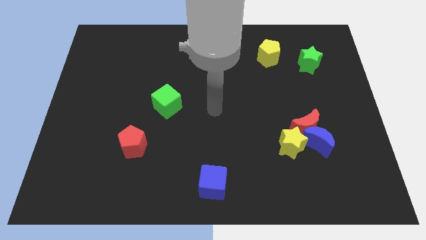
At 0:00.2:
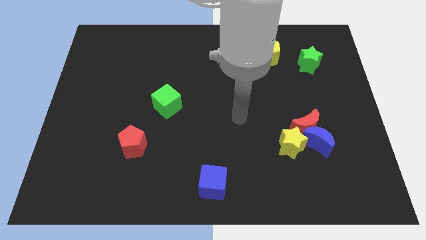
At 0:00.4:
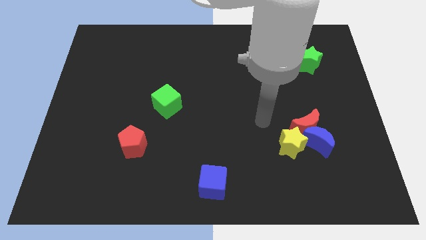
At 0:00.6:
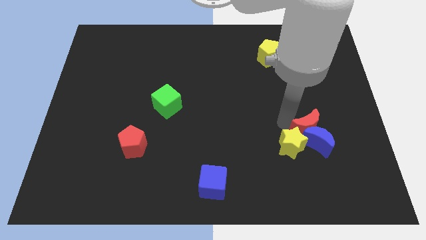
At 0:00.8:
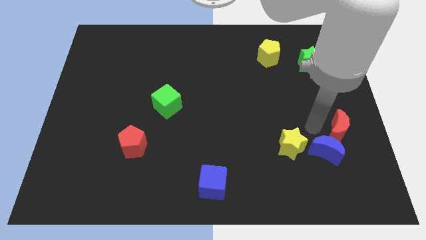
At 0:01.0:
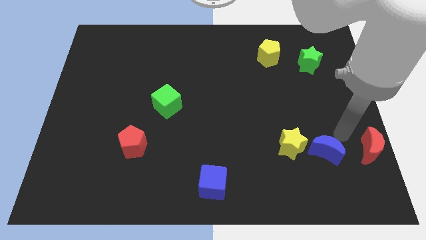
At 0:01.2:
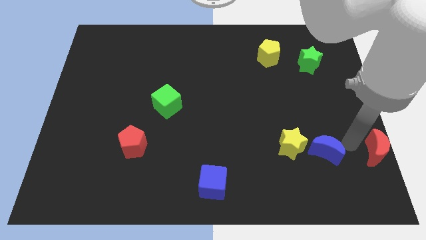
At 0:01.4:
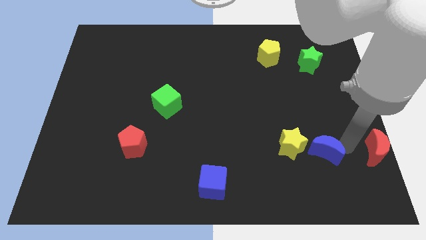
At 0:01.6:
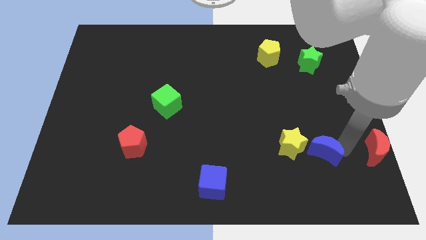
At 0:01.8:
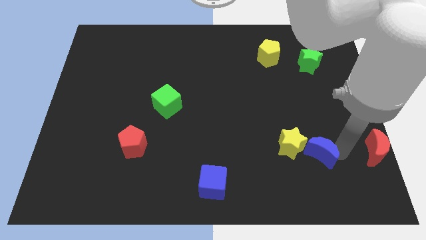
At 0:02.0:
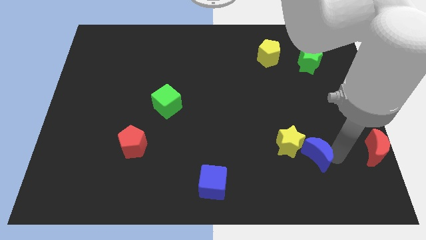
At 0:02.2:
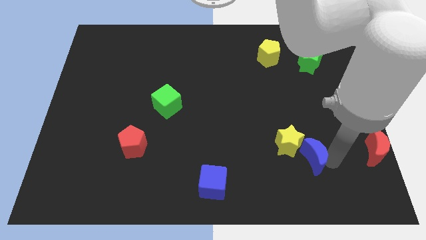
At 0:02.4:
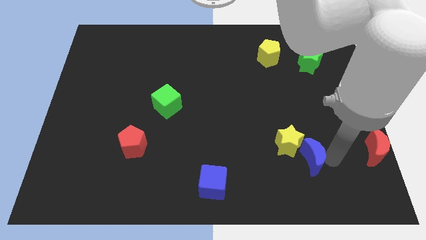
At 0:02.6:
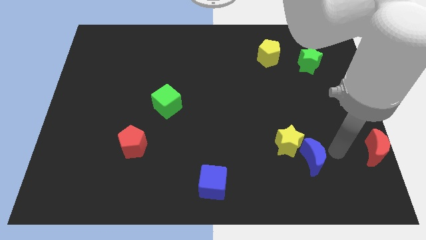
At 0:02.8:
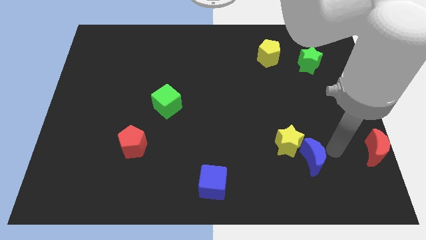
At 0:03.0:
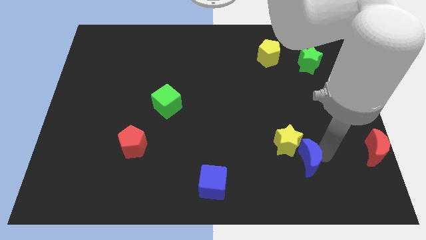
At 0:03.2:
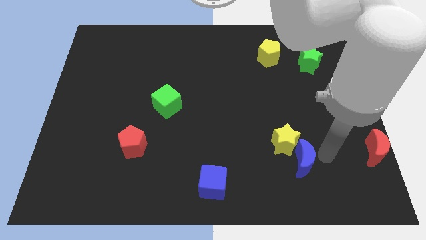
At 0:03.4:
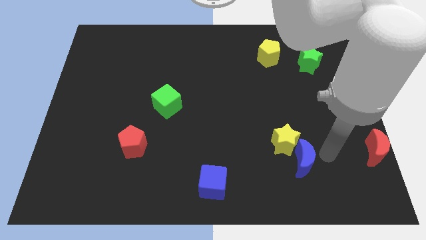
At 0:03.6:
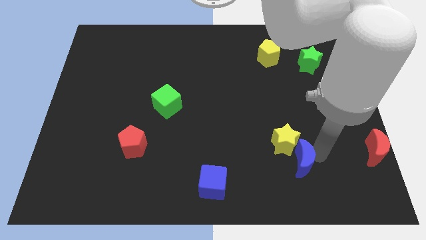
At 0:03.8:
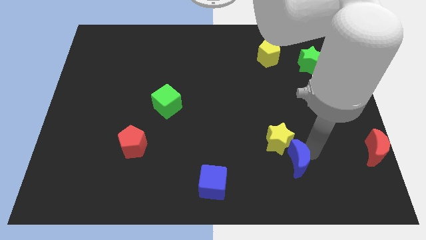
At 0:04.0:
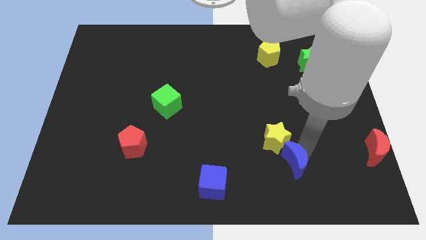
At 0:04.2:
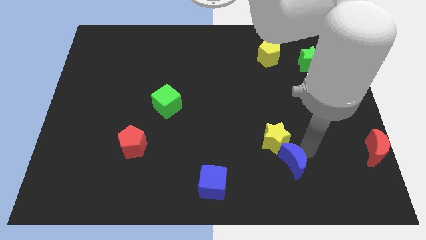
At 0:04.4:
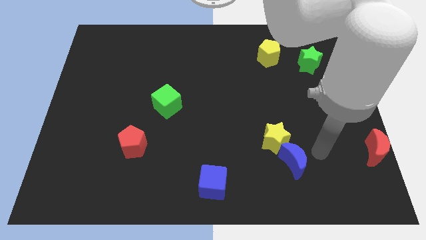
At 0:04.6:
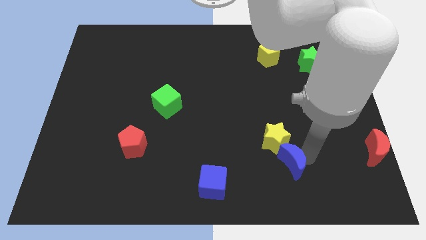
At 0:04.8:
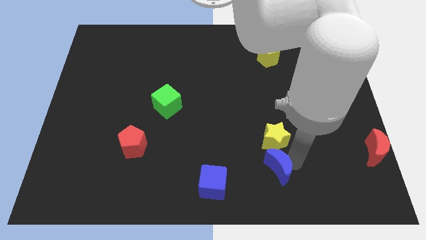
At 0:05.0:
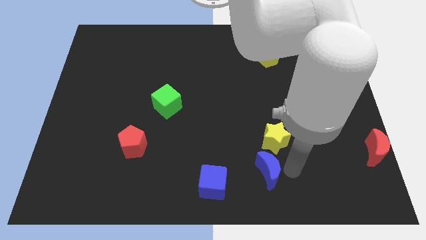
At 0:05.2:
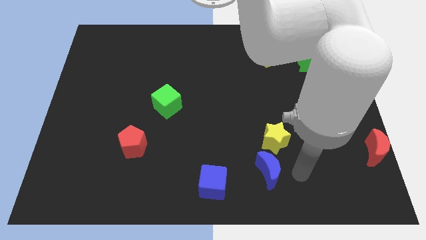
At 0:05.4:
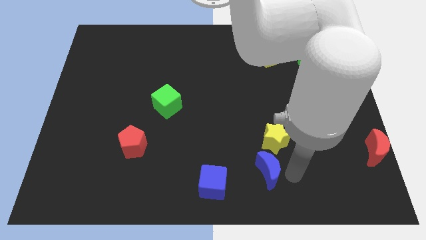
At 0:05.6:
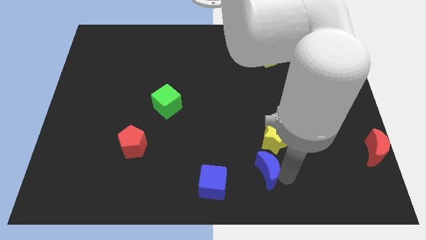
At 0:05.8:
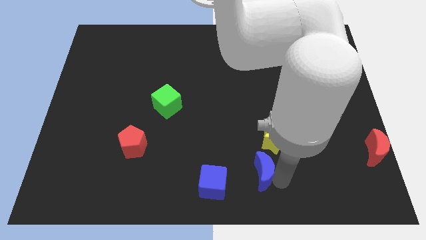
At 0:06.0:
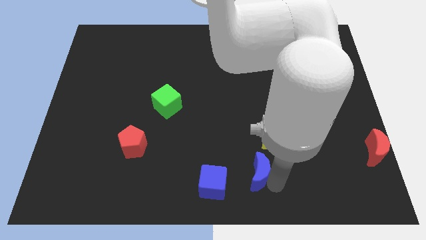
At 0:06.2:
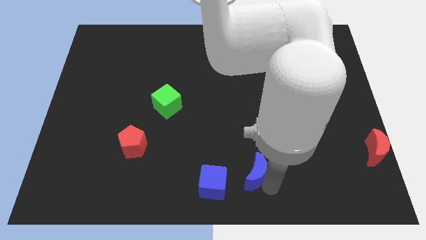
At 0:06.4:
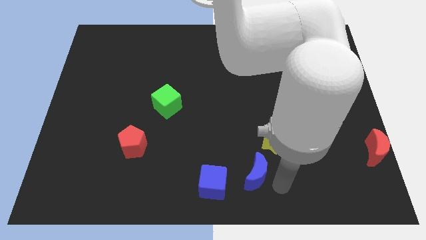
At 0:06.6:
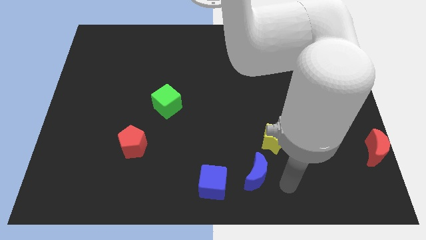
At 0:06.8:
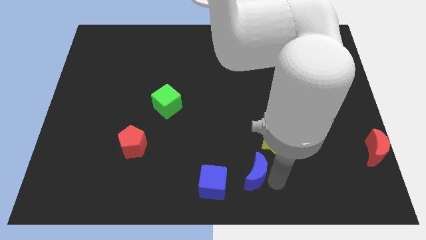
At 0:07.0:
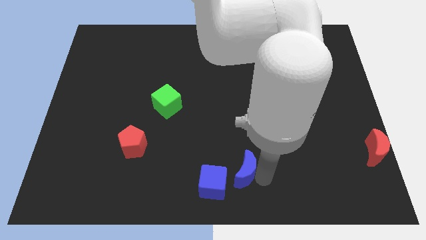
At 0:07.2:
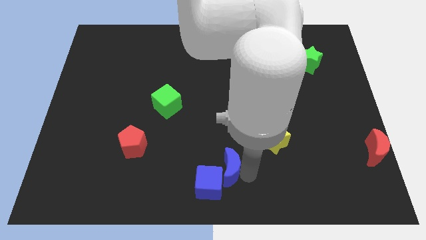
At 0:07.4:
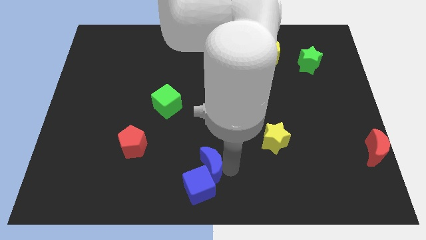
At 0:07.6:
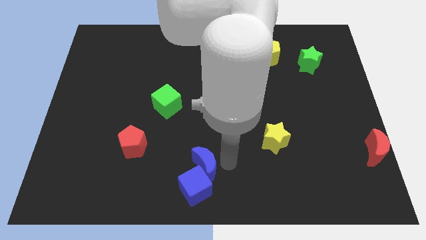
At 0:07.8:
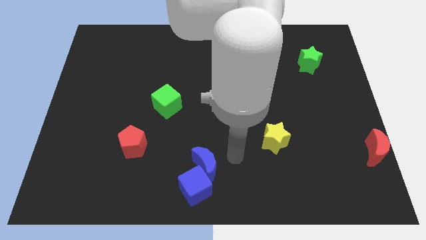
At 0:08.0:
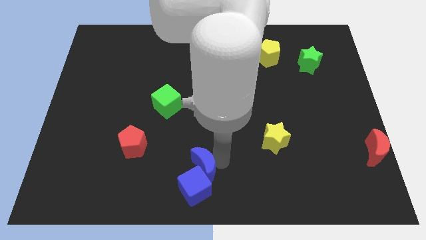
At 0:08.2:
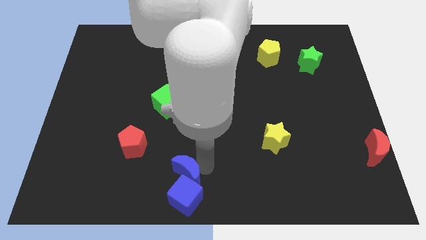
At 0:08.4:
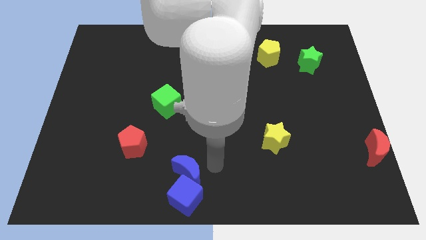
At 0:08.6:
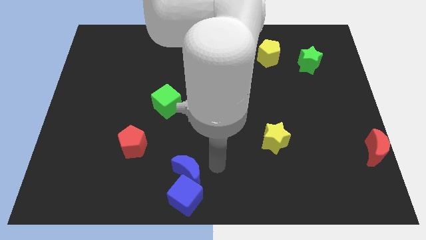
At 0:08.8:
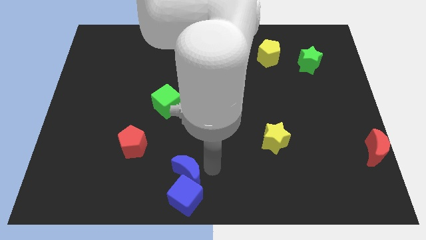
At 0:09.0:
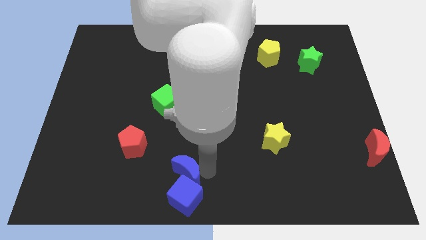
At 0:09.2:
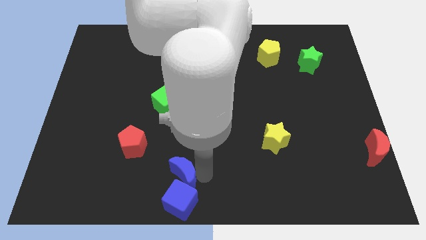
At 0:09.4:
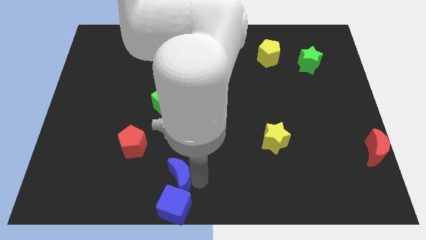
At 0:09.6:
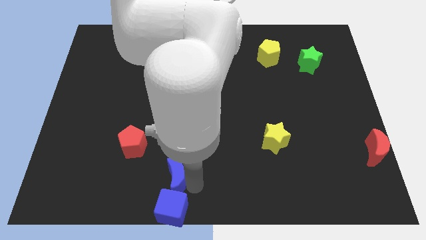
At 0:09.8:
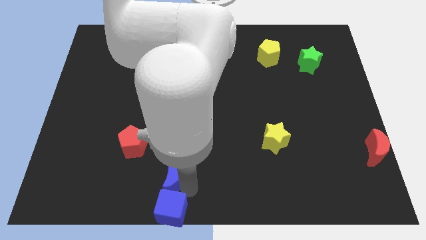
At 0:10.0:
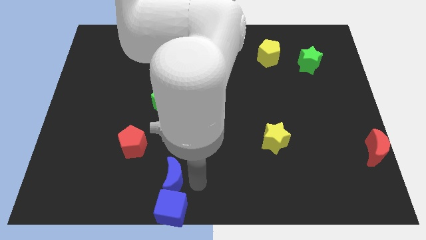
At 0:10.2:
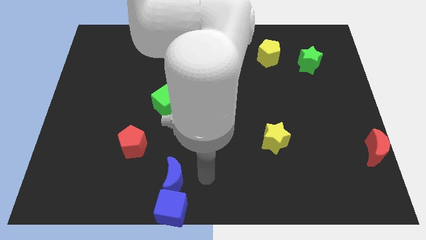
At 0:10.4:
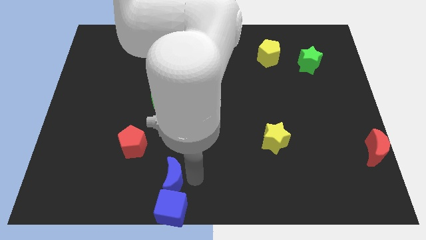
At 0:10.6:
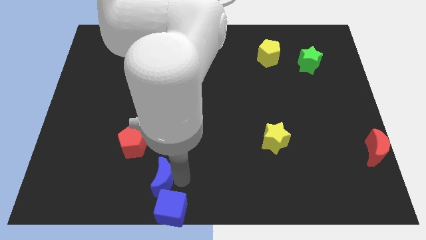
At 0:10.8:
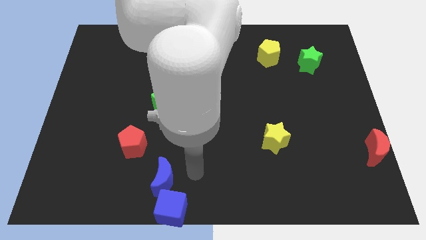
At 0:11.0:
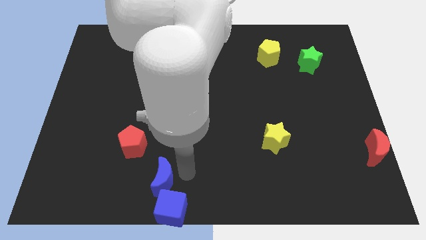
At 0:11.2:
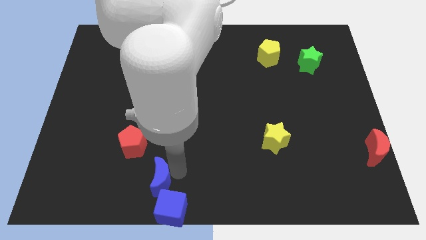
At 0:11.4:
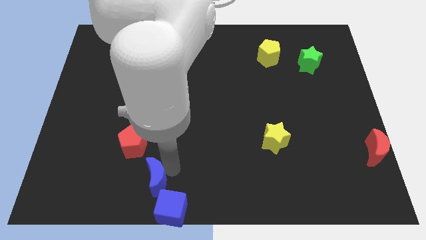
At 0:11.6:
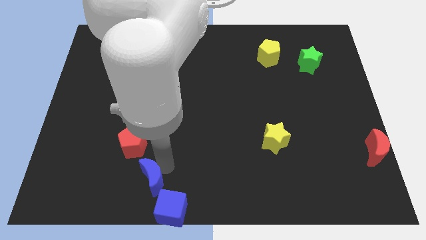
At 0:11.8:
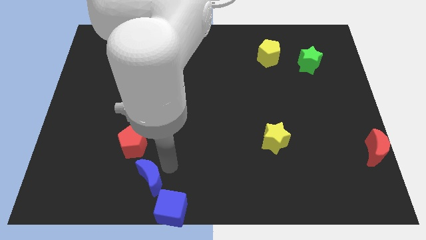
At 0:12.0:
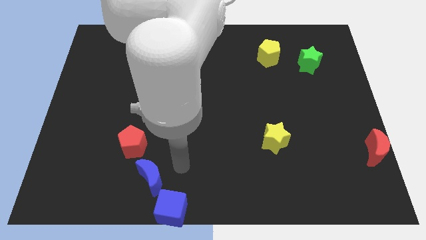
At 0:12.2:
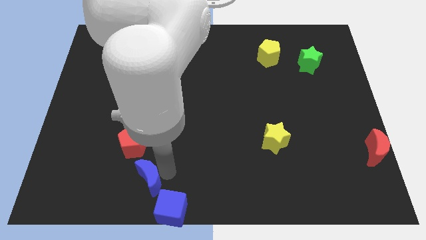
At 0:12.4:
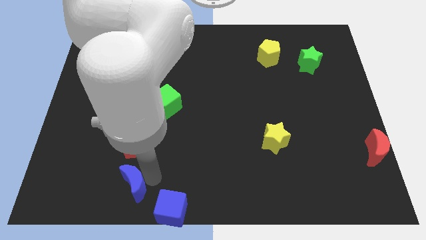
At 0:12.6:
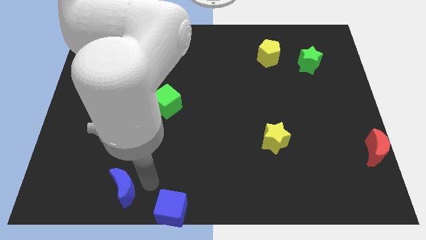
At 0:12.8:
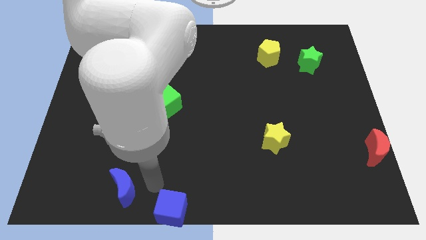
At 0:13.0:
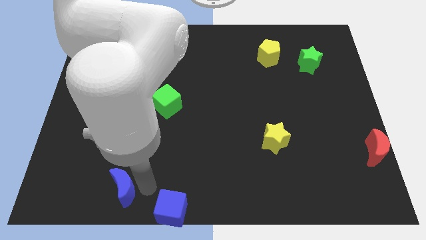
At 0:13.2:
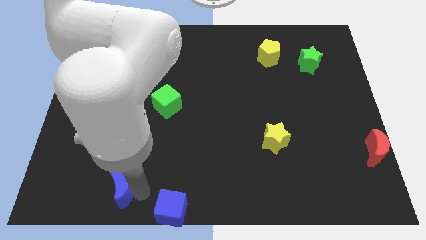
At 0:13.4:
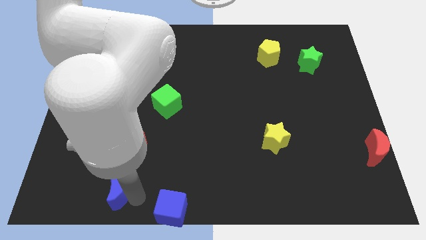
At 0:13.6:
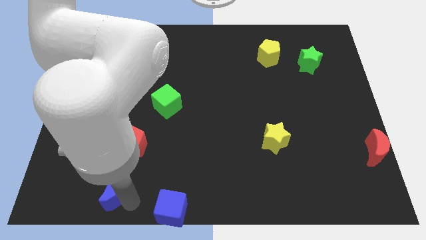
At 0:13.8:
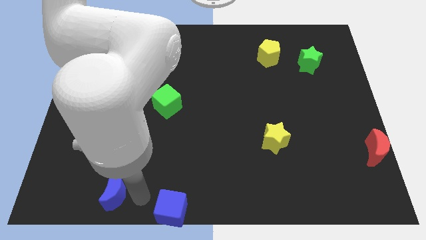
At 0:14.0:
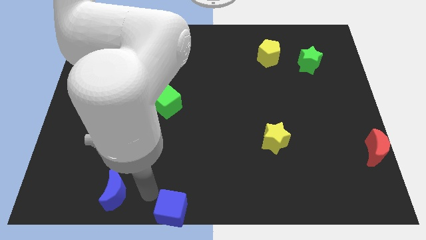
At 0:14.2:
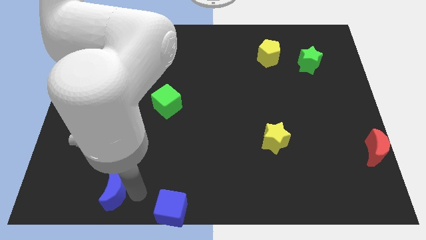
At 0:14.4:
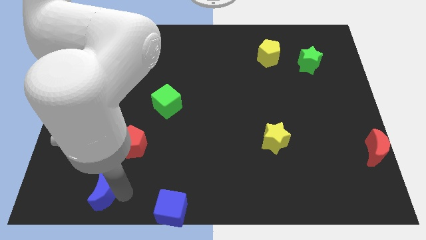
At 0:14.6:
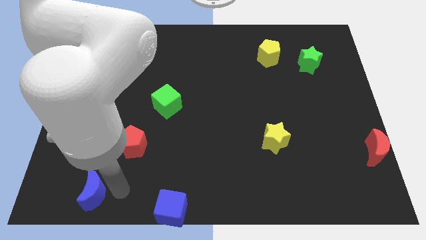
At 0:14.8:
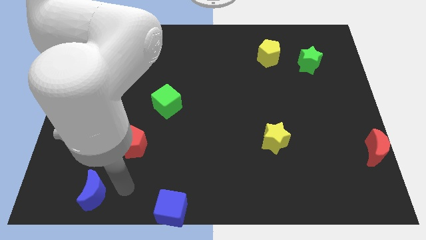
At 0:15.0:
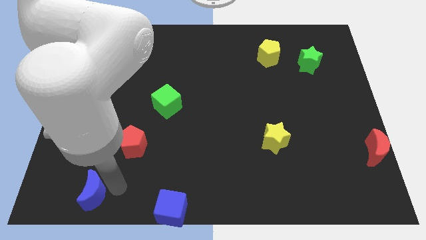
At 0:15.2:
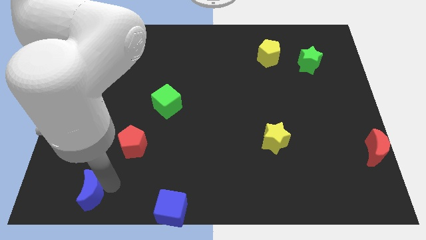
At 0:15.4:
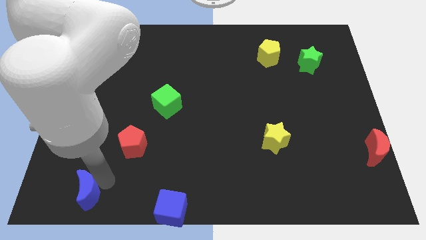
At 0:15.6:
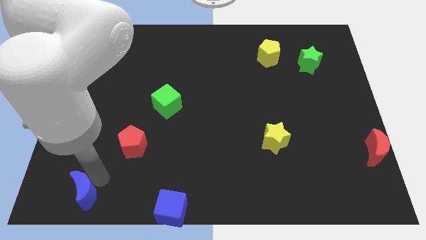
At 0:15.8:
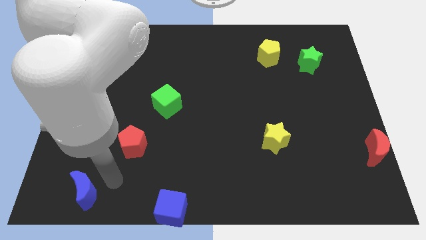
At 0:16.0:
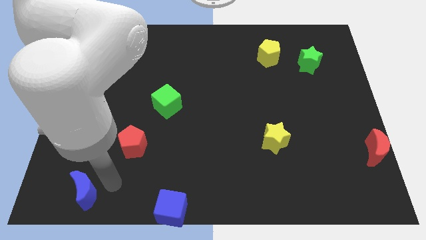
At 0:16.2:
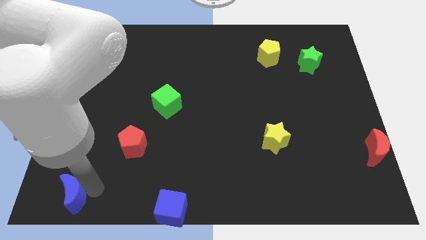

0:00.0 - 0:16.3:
move the blue moon to the bottom left
